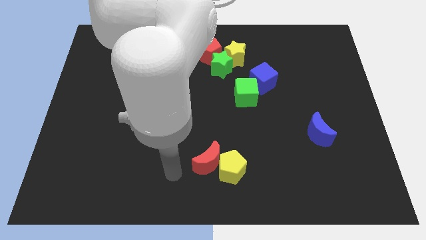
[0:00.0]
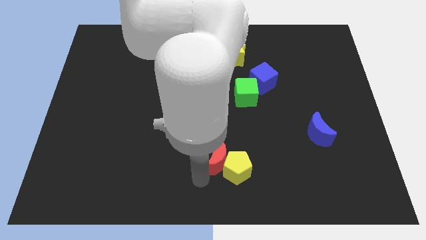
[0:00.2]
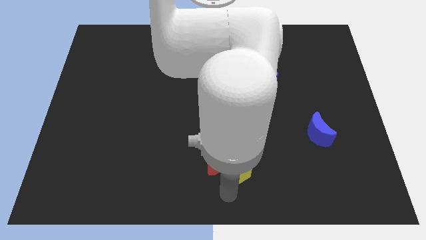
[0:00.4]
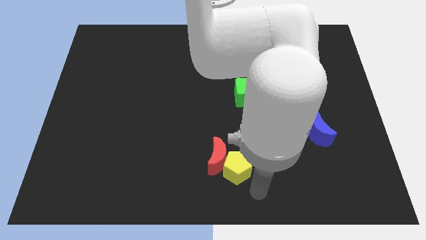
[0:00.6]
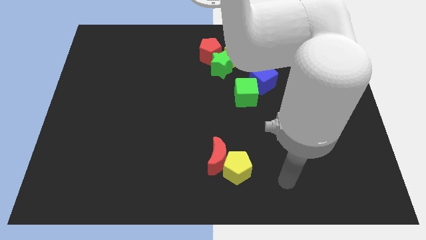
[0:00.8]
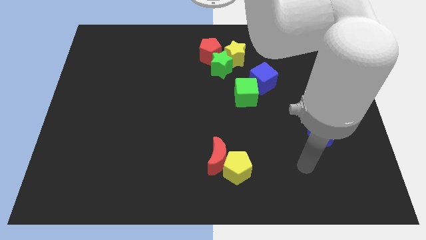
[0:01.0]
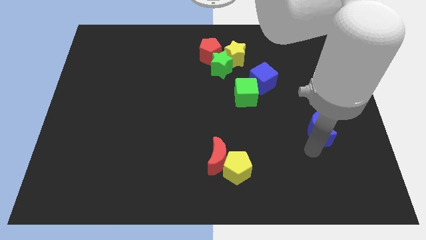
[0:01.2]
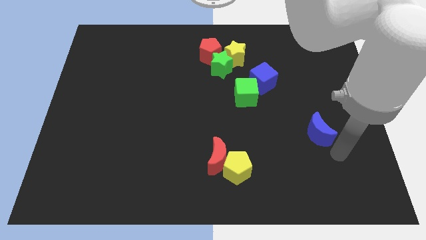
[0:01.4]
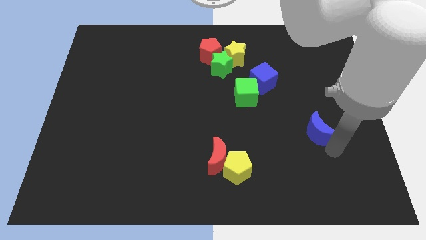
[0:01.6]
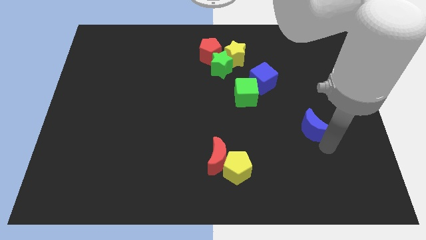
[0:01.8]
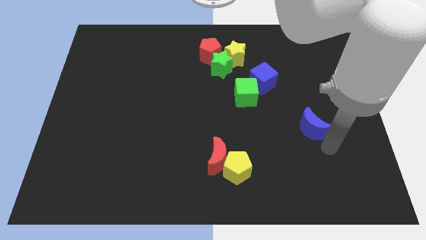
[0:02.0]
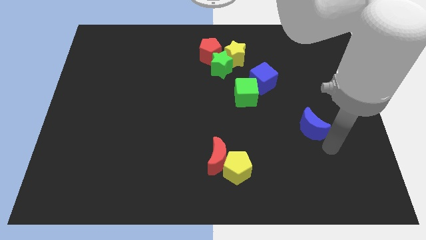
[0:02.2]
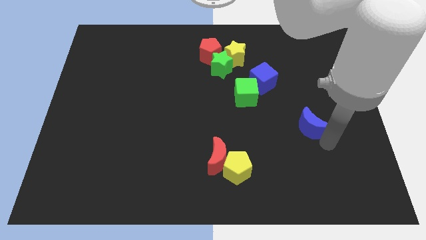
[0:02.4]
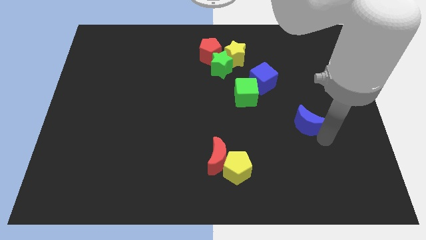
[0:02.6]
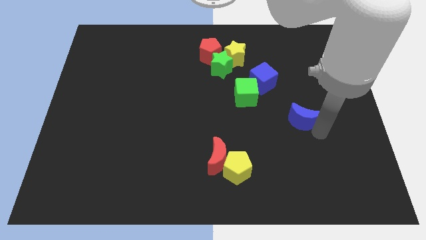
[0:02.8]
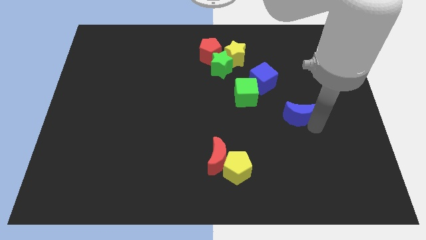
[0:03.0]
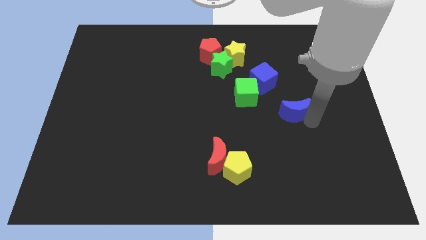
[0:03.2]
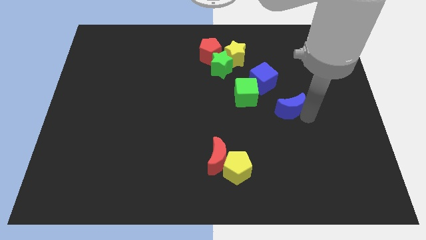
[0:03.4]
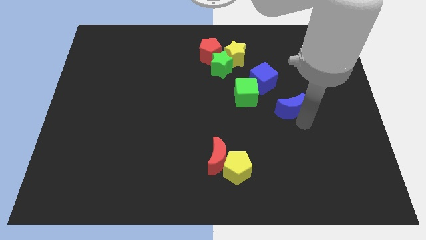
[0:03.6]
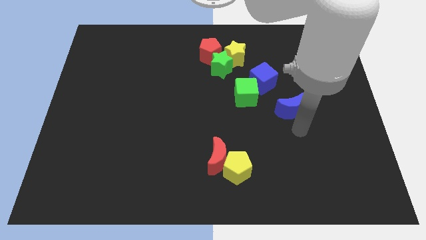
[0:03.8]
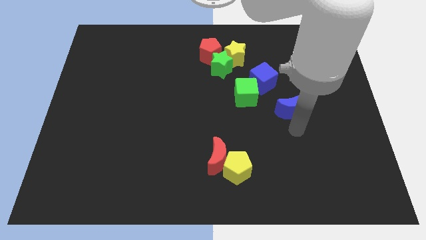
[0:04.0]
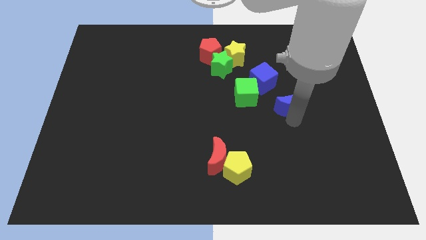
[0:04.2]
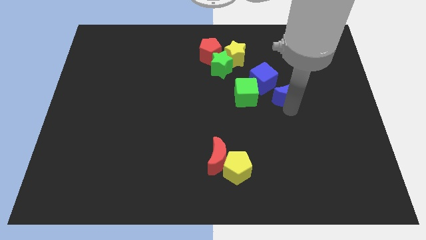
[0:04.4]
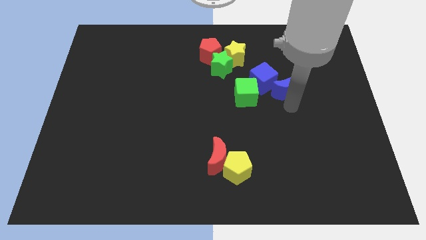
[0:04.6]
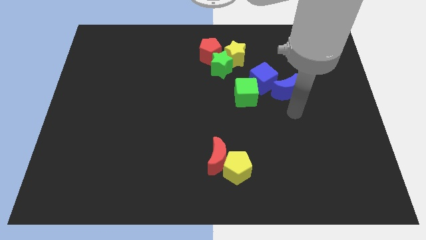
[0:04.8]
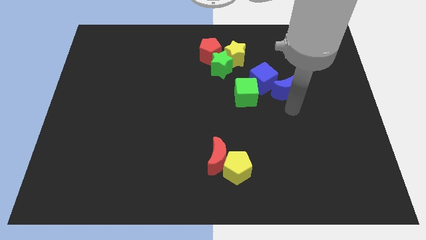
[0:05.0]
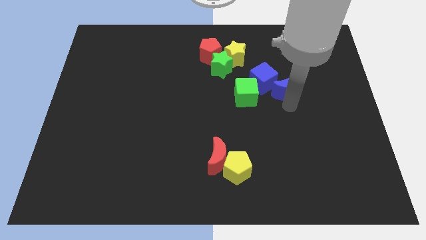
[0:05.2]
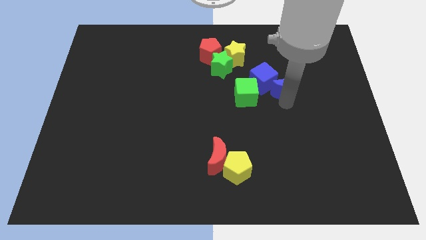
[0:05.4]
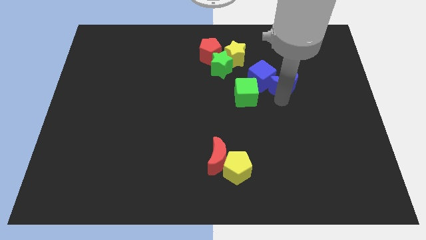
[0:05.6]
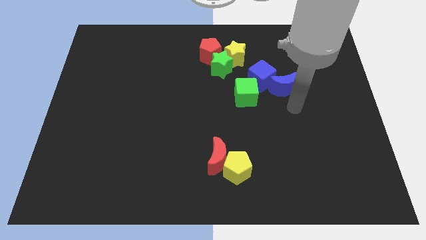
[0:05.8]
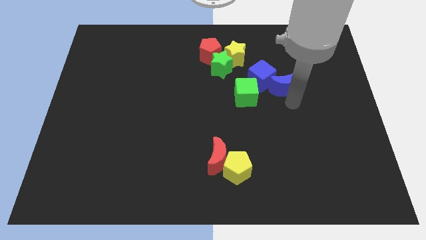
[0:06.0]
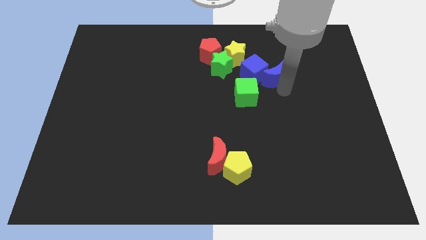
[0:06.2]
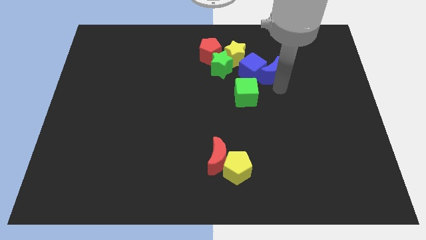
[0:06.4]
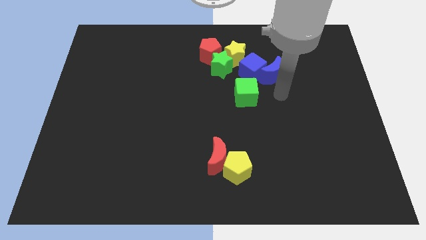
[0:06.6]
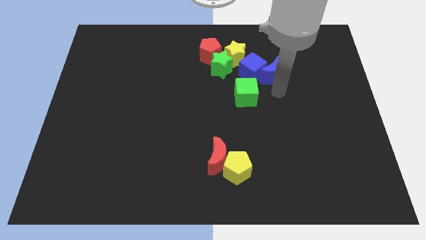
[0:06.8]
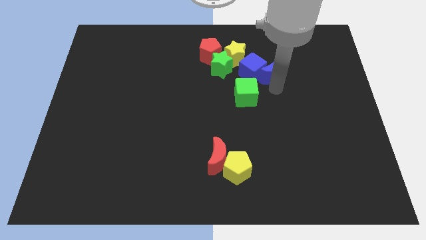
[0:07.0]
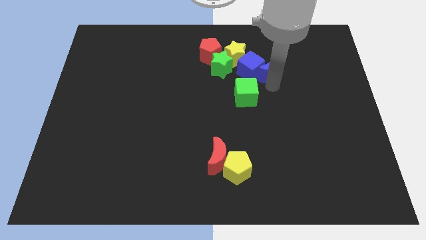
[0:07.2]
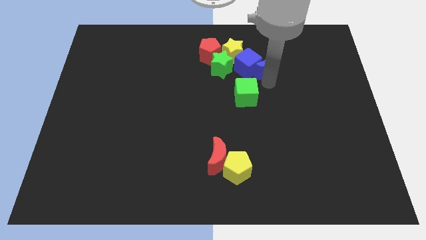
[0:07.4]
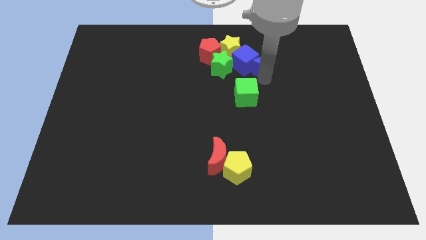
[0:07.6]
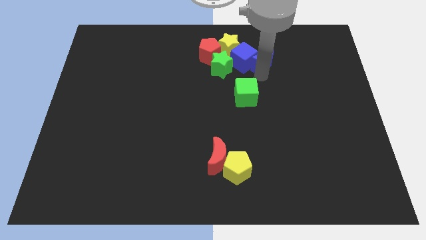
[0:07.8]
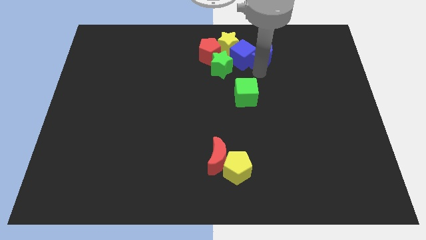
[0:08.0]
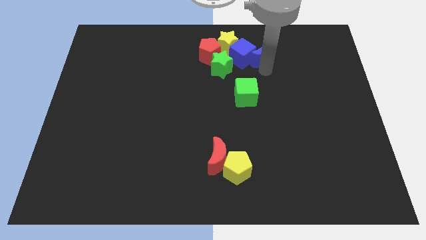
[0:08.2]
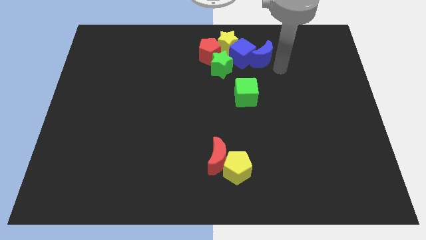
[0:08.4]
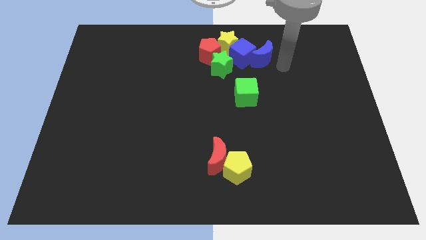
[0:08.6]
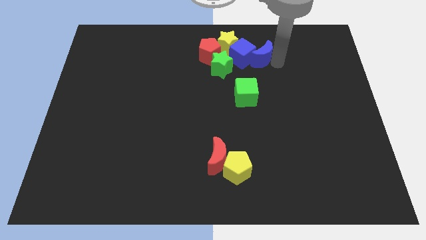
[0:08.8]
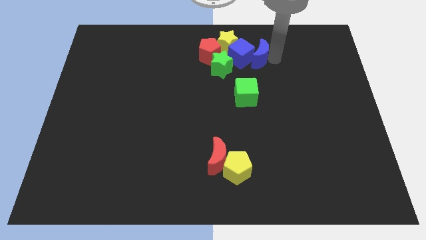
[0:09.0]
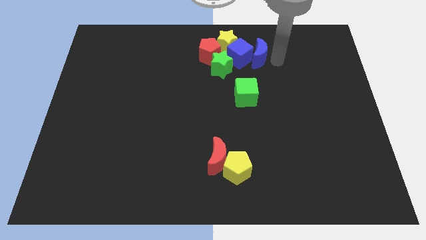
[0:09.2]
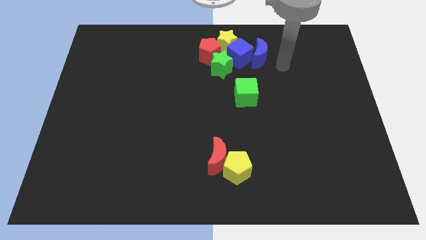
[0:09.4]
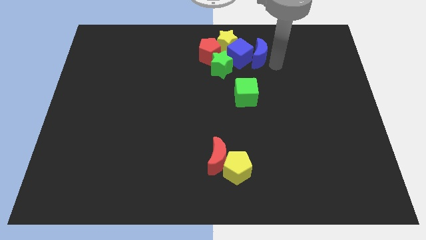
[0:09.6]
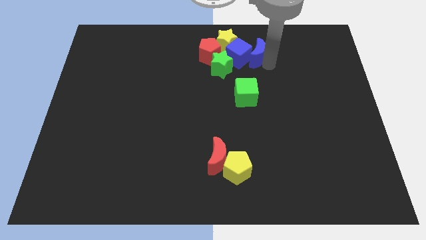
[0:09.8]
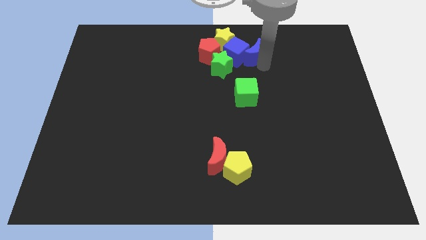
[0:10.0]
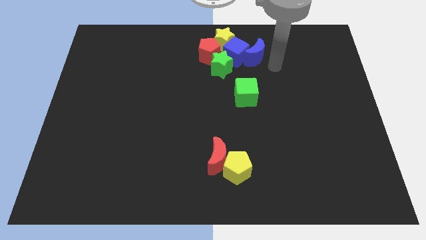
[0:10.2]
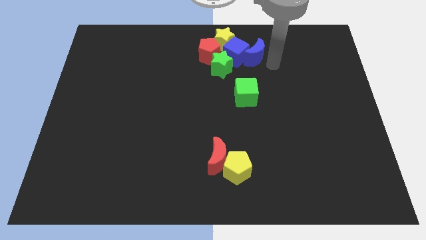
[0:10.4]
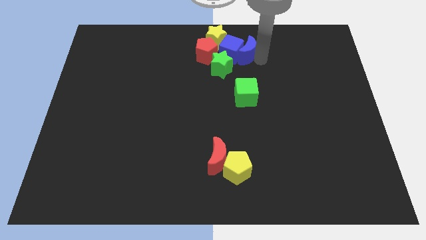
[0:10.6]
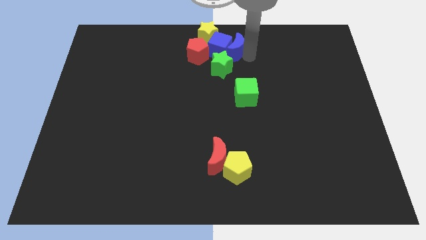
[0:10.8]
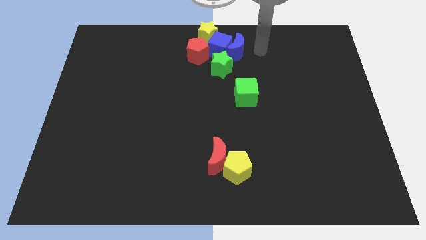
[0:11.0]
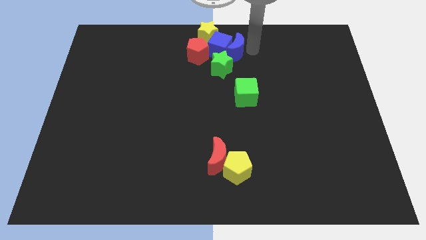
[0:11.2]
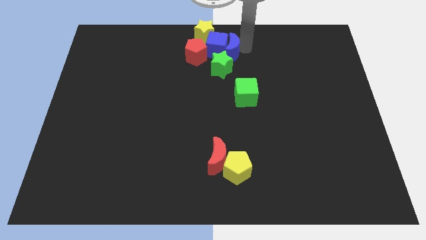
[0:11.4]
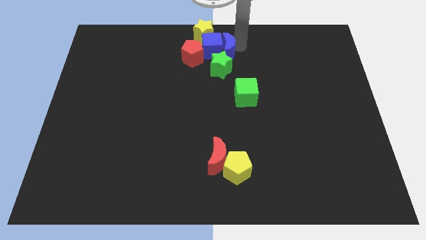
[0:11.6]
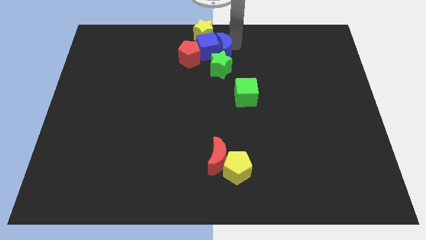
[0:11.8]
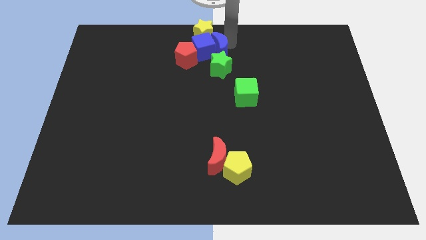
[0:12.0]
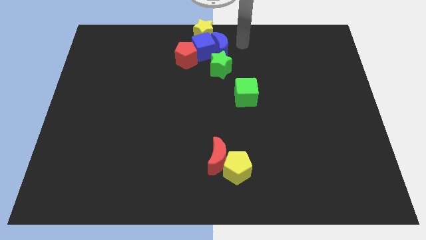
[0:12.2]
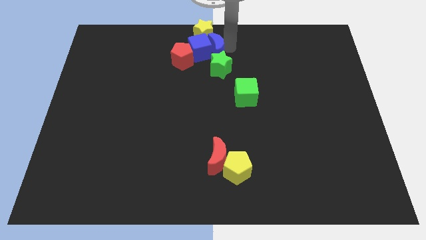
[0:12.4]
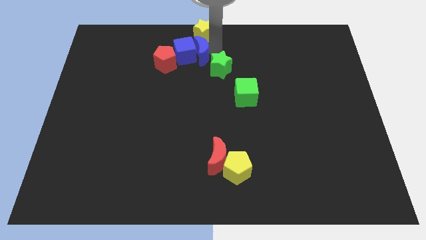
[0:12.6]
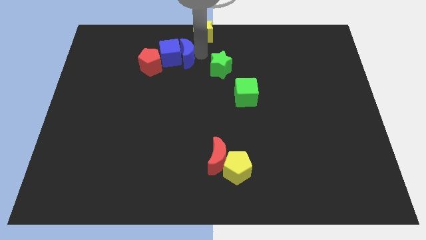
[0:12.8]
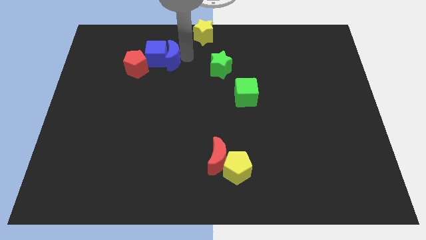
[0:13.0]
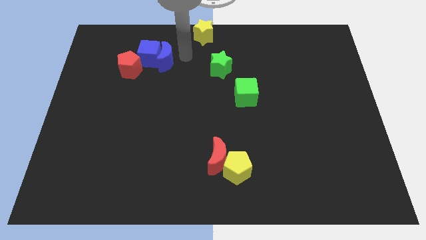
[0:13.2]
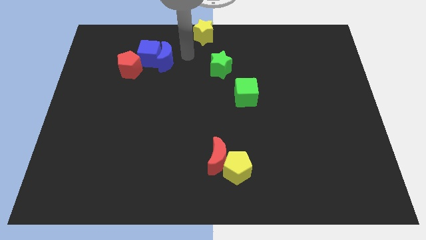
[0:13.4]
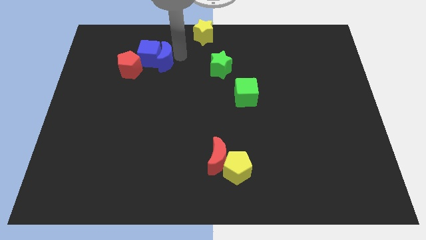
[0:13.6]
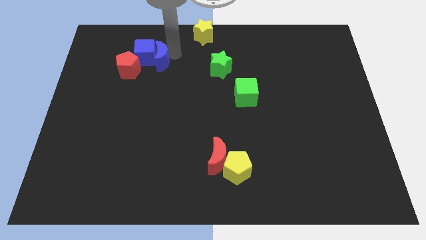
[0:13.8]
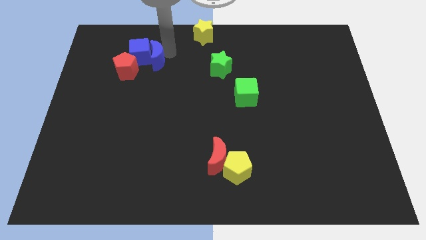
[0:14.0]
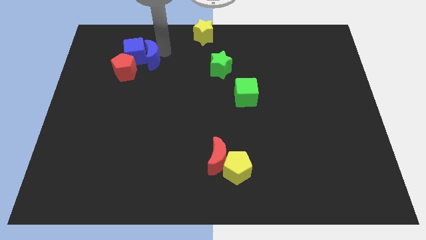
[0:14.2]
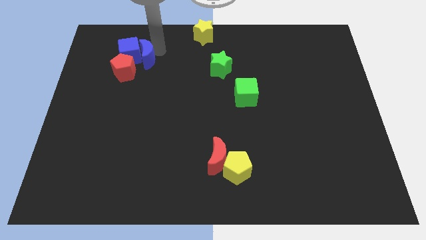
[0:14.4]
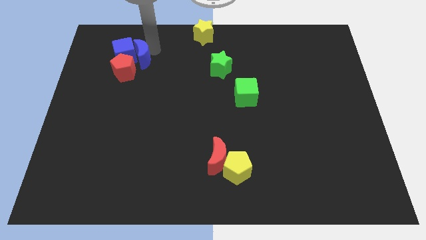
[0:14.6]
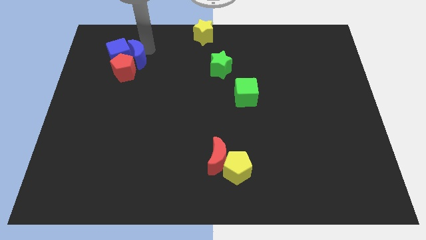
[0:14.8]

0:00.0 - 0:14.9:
slide the blue moon towards the red pentagon
